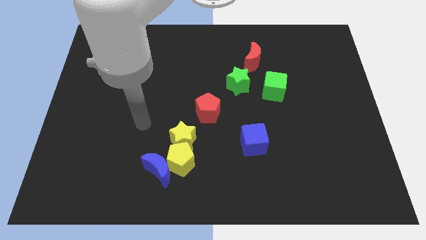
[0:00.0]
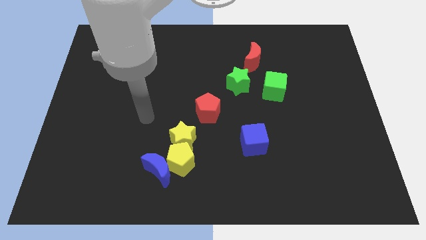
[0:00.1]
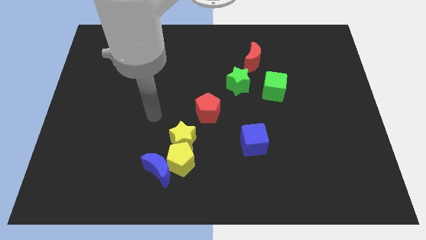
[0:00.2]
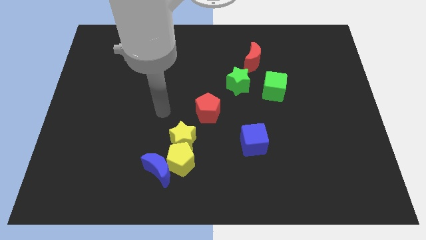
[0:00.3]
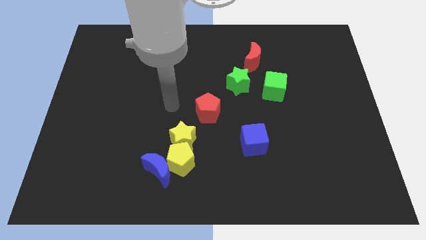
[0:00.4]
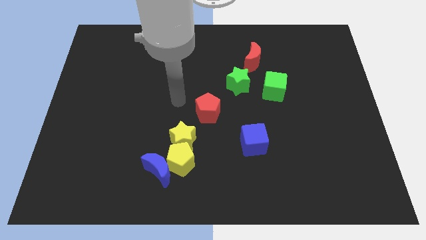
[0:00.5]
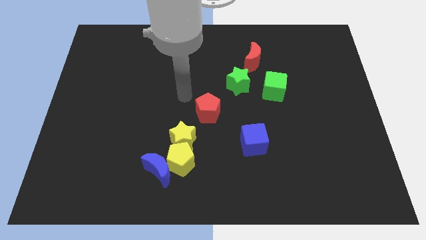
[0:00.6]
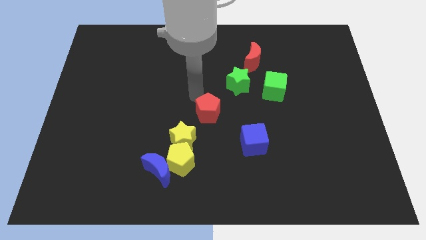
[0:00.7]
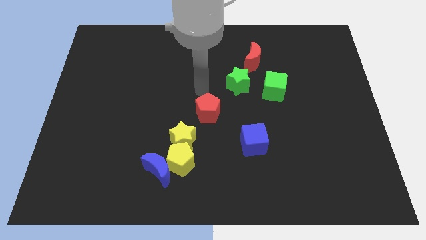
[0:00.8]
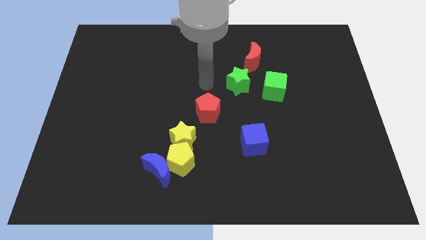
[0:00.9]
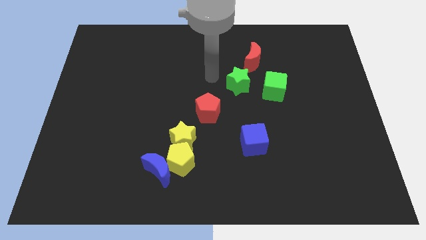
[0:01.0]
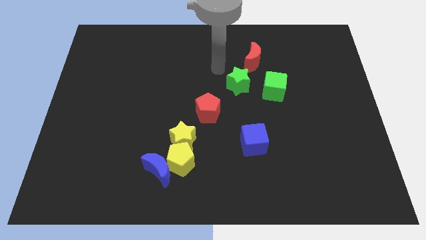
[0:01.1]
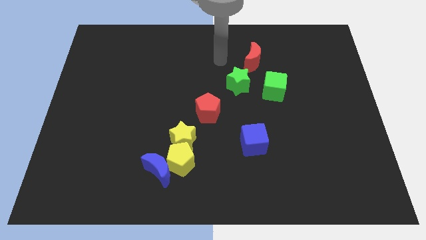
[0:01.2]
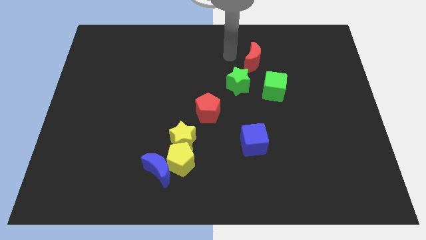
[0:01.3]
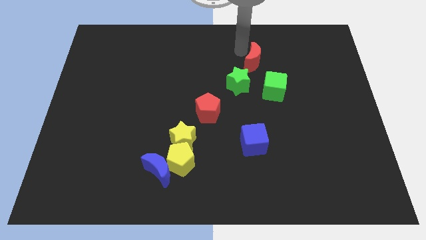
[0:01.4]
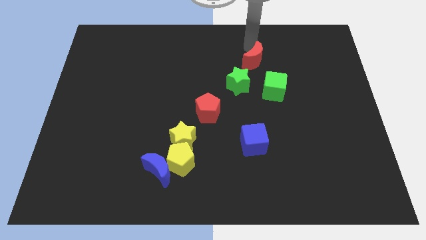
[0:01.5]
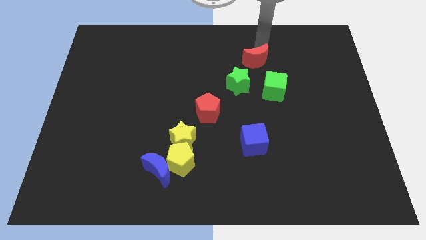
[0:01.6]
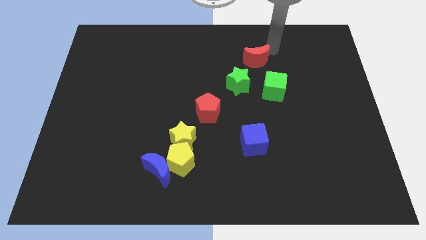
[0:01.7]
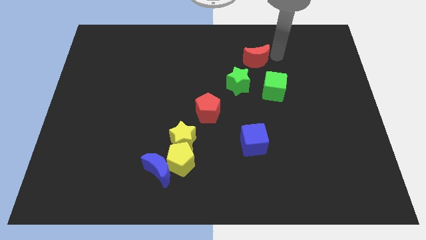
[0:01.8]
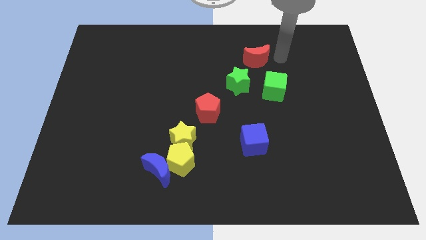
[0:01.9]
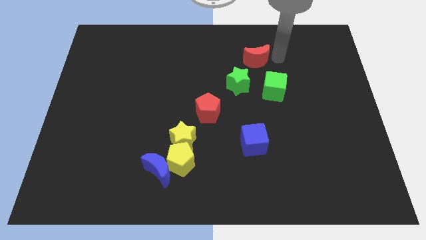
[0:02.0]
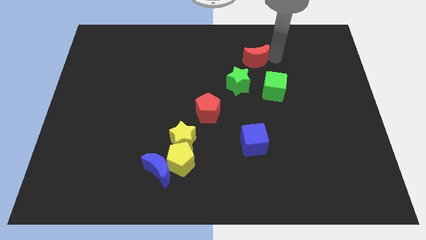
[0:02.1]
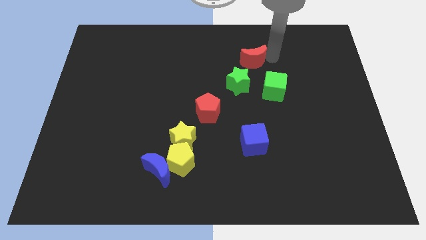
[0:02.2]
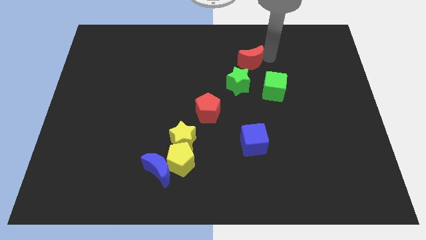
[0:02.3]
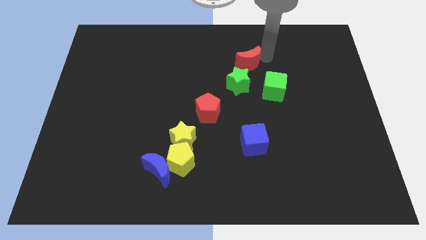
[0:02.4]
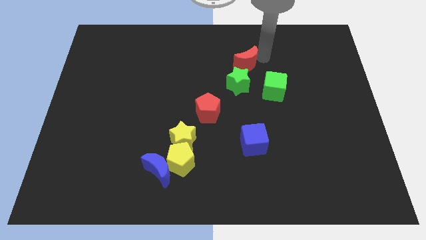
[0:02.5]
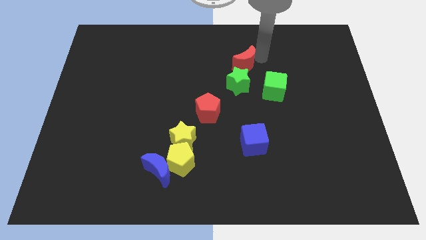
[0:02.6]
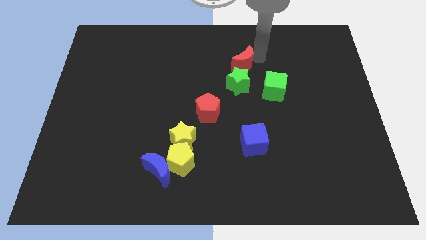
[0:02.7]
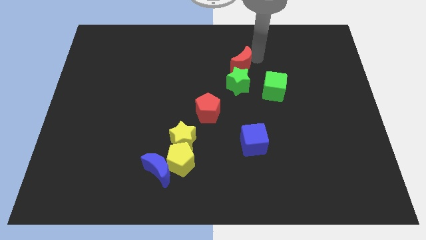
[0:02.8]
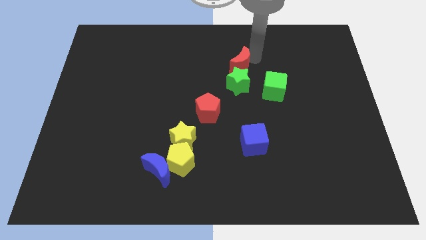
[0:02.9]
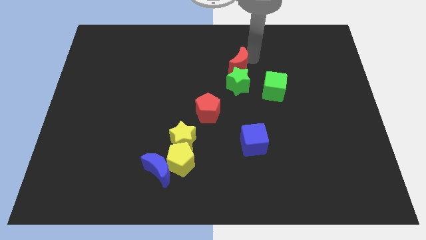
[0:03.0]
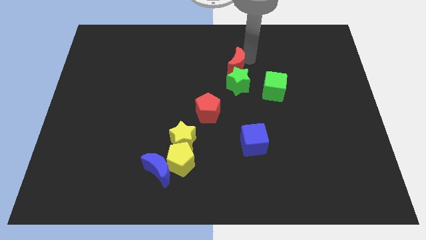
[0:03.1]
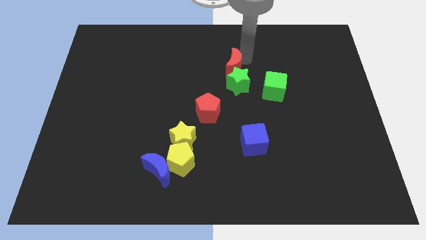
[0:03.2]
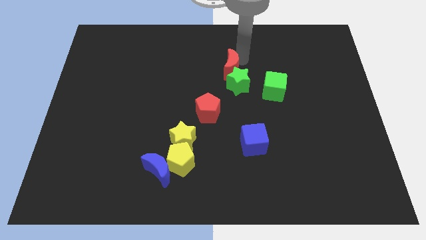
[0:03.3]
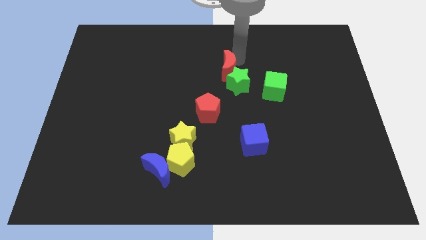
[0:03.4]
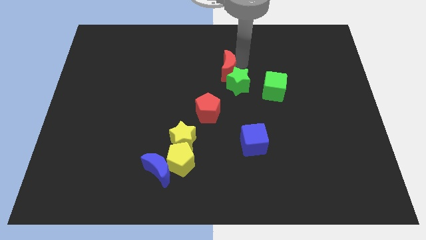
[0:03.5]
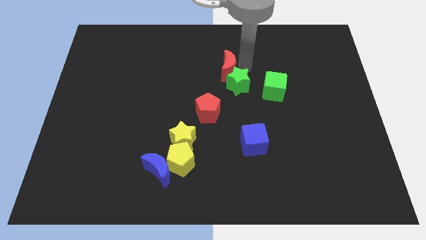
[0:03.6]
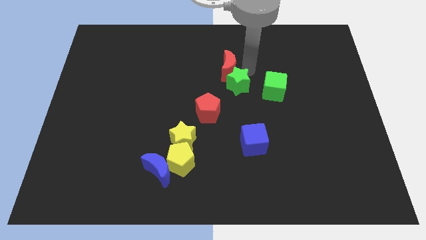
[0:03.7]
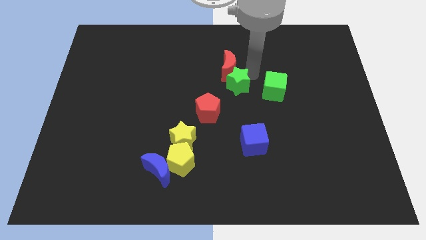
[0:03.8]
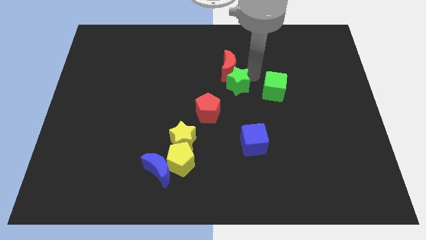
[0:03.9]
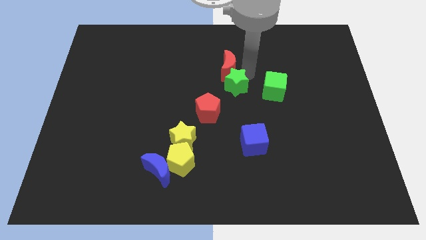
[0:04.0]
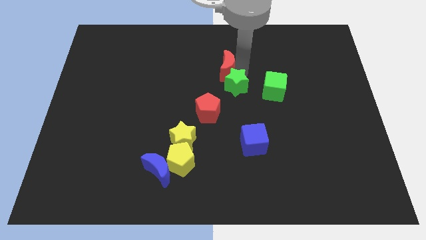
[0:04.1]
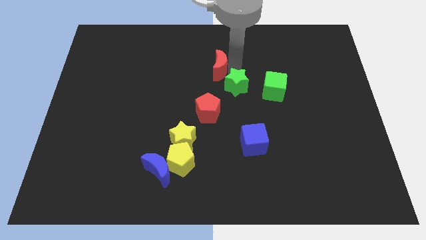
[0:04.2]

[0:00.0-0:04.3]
slightly push the red moon to the left

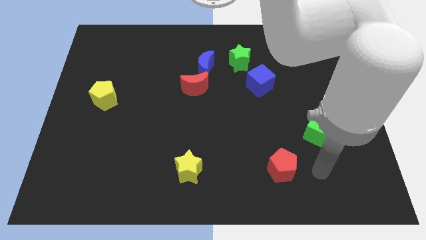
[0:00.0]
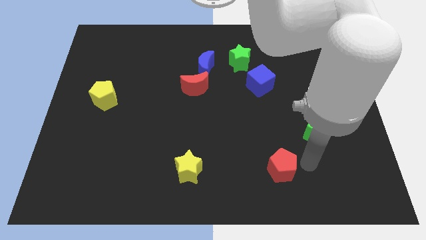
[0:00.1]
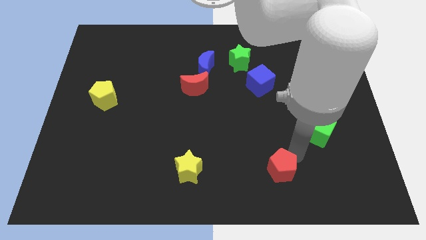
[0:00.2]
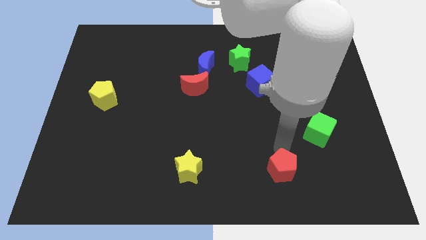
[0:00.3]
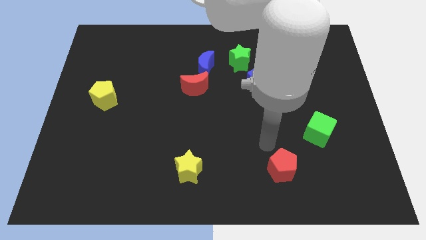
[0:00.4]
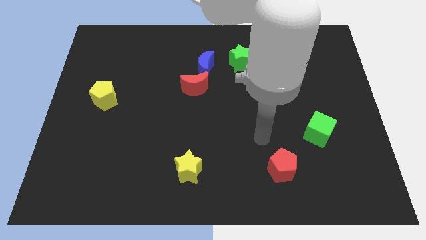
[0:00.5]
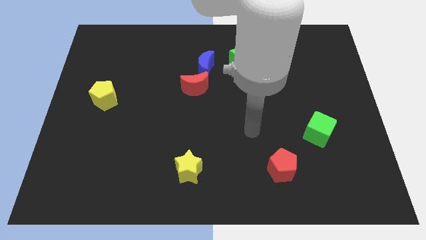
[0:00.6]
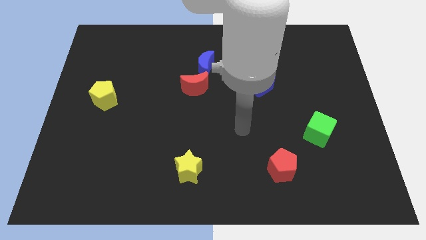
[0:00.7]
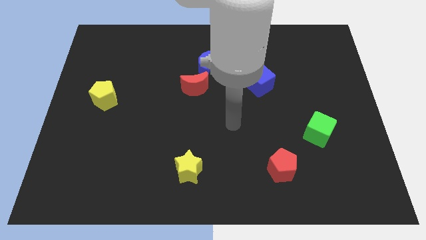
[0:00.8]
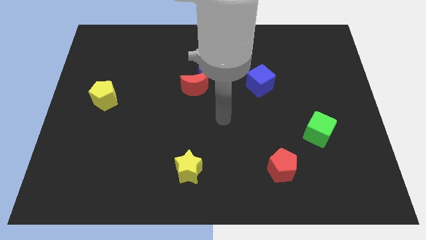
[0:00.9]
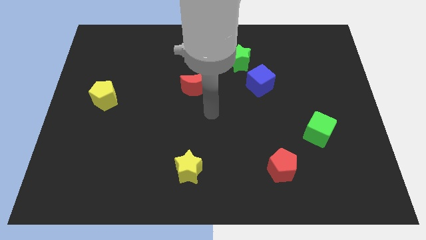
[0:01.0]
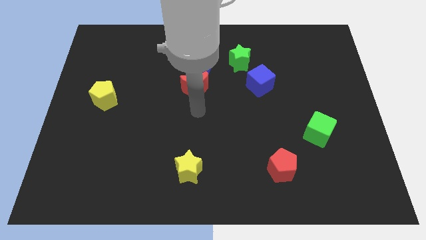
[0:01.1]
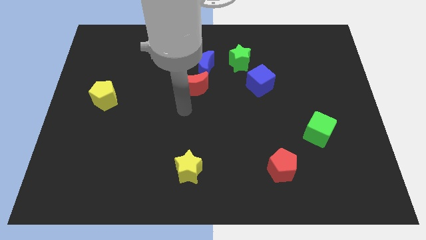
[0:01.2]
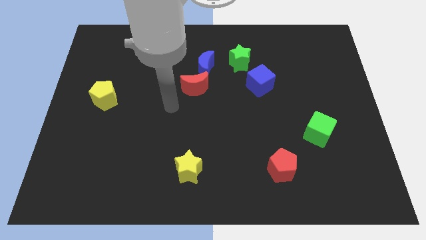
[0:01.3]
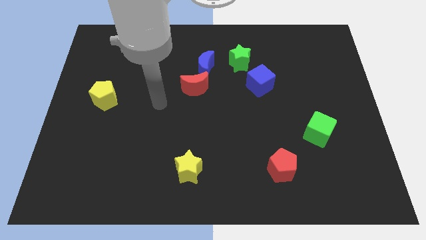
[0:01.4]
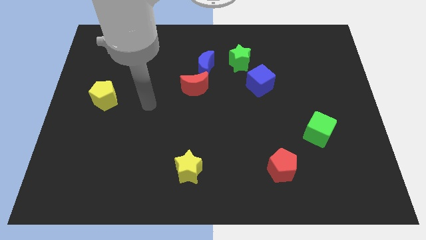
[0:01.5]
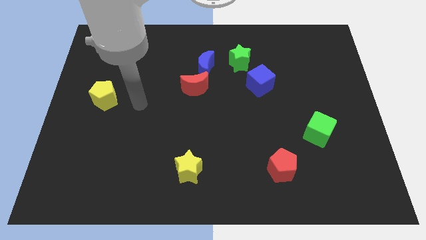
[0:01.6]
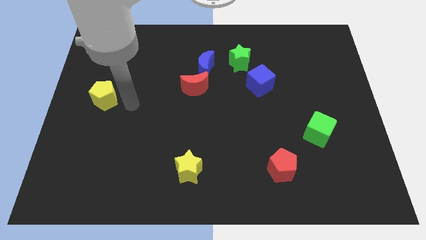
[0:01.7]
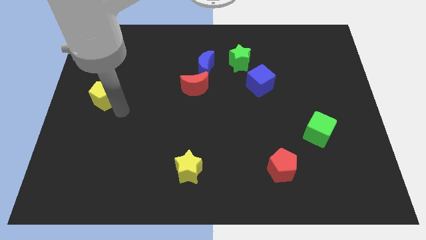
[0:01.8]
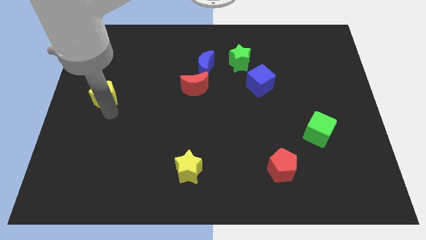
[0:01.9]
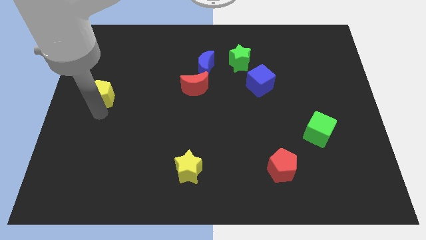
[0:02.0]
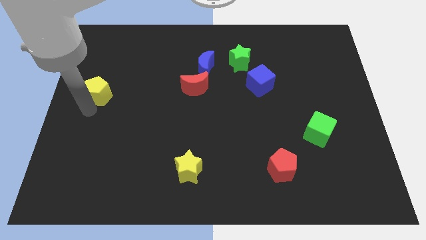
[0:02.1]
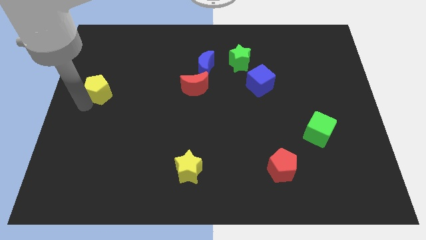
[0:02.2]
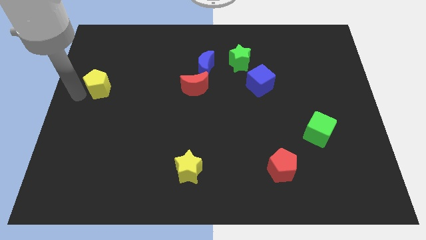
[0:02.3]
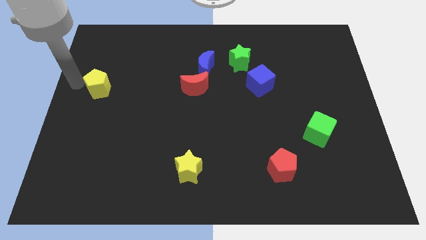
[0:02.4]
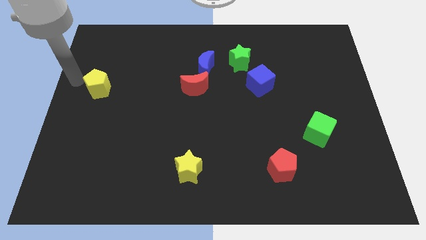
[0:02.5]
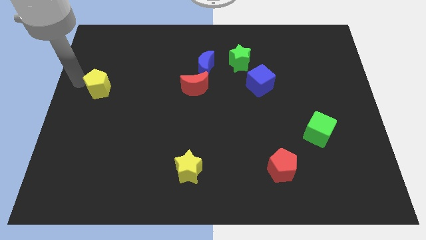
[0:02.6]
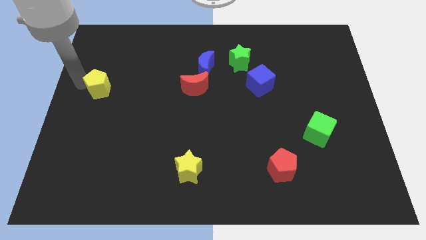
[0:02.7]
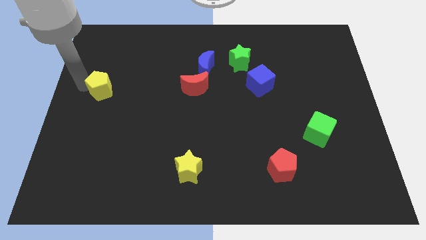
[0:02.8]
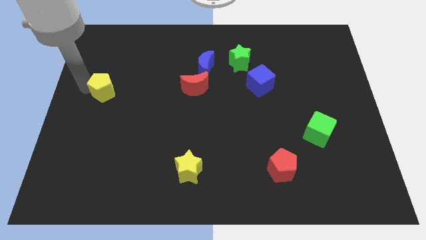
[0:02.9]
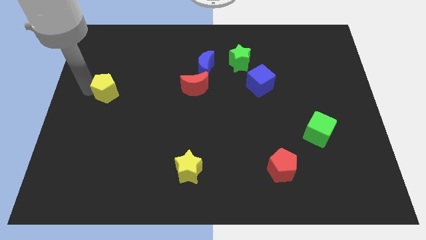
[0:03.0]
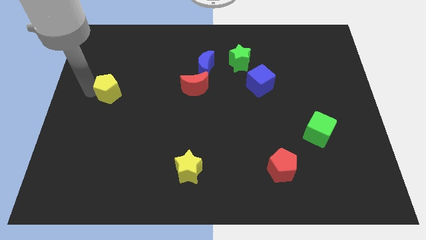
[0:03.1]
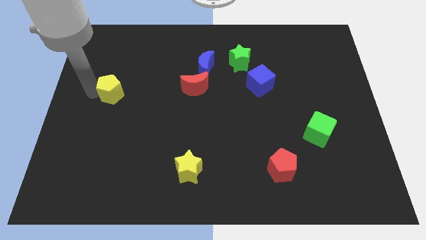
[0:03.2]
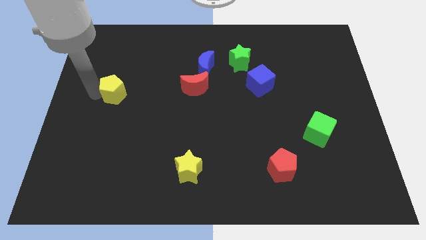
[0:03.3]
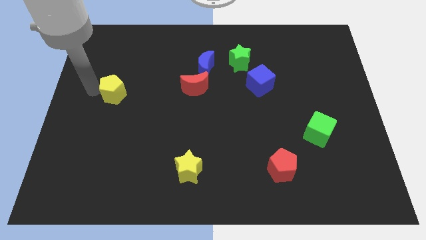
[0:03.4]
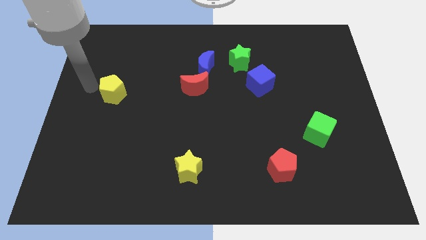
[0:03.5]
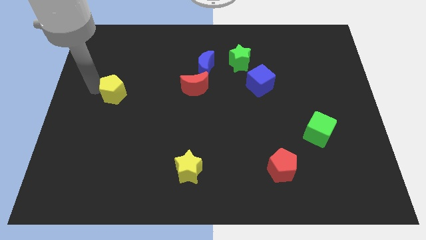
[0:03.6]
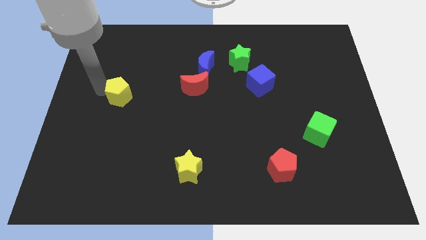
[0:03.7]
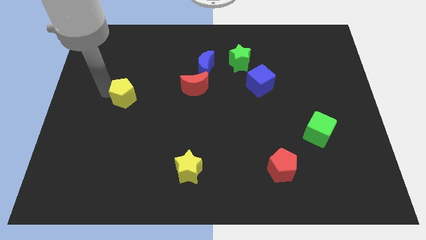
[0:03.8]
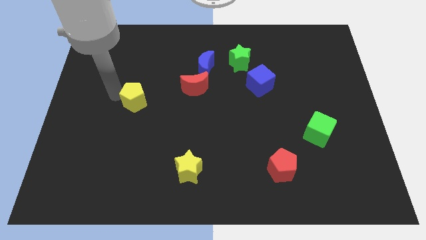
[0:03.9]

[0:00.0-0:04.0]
slide the yellow pentagon to the right slightly
